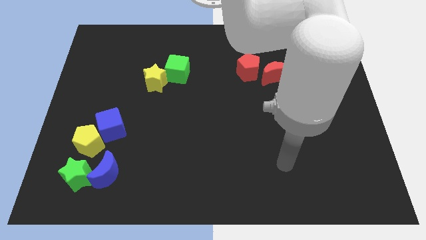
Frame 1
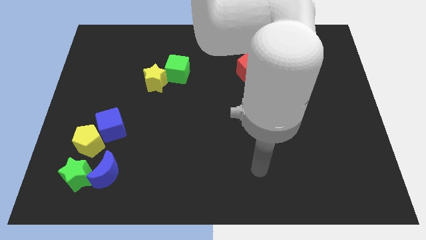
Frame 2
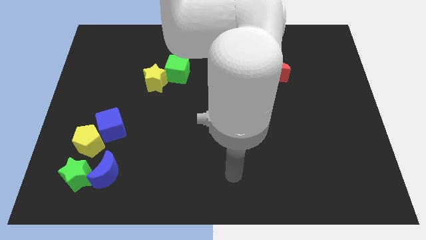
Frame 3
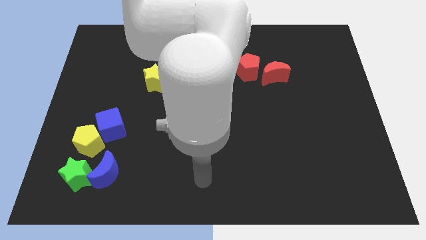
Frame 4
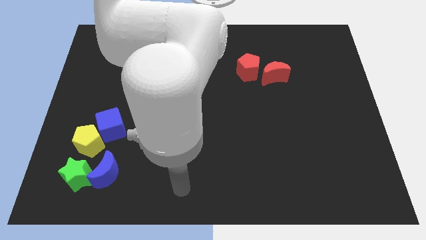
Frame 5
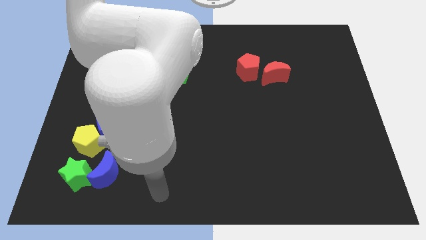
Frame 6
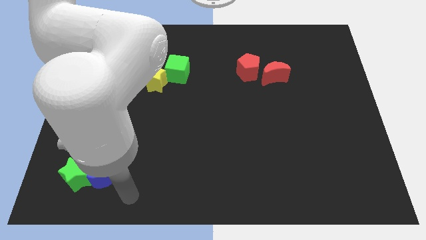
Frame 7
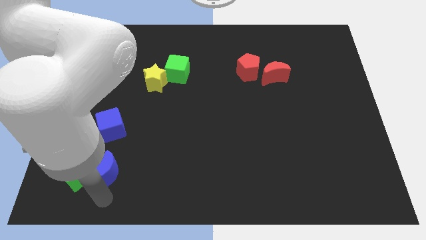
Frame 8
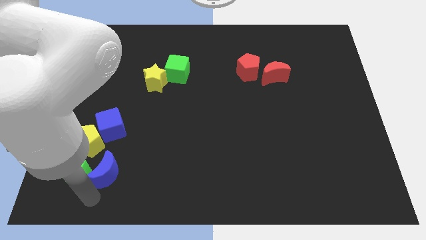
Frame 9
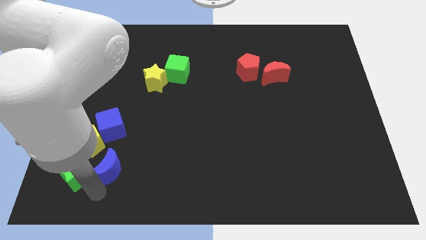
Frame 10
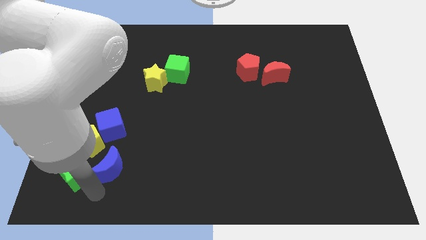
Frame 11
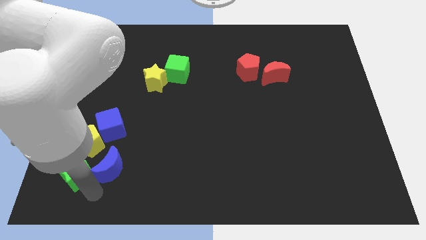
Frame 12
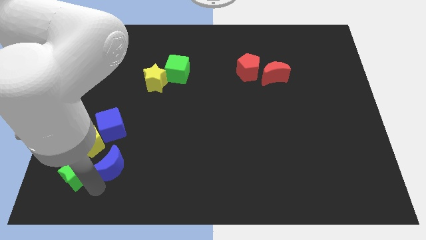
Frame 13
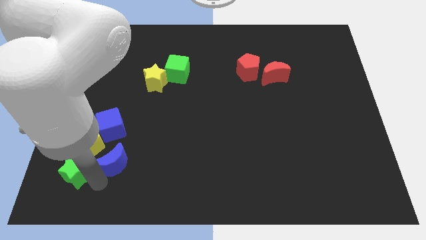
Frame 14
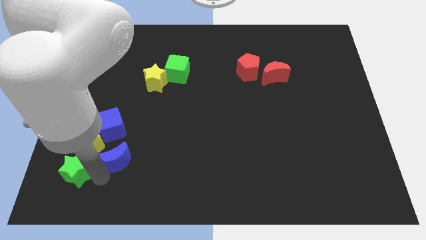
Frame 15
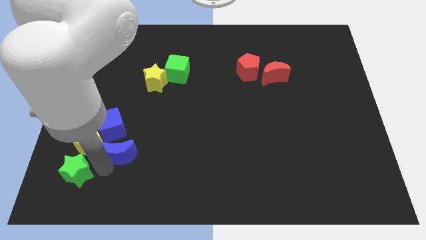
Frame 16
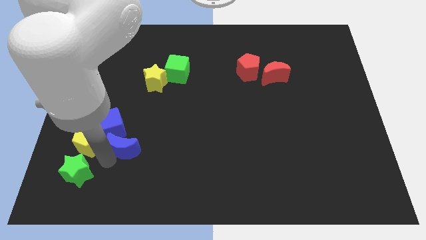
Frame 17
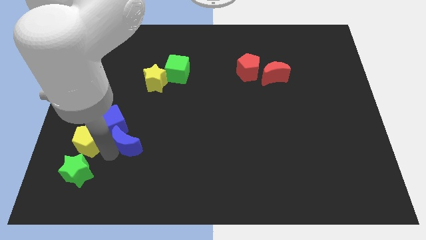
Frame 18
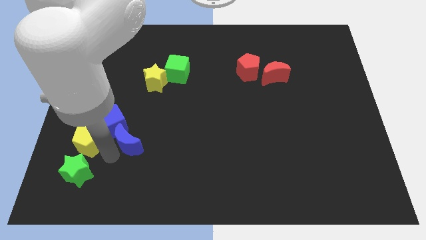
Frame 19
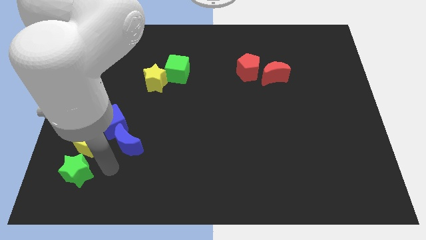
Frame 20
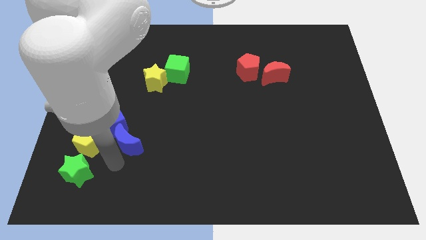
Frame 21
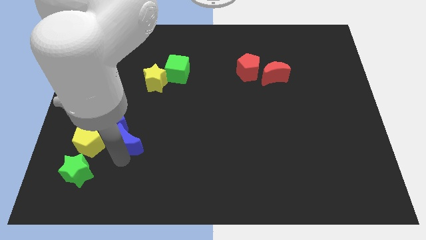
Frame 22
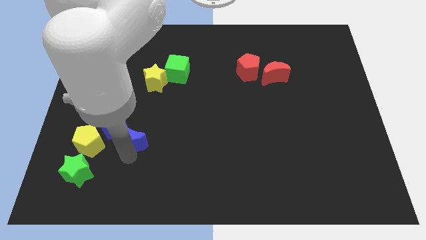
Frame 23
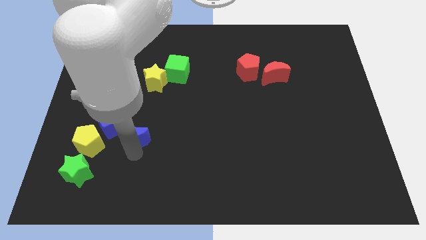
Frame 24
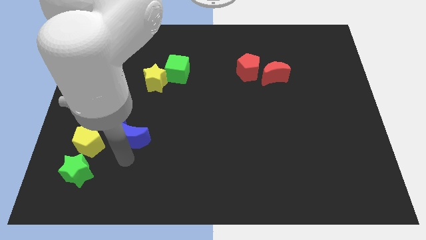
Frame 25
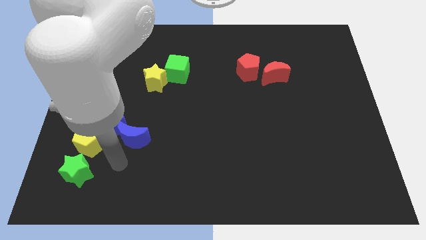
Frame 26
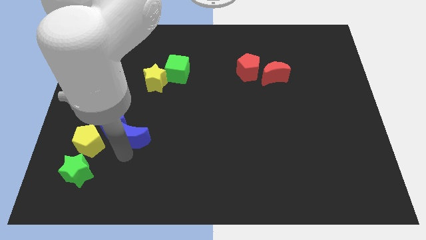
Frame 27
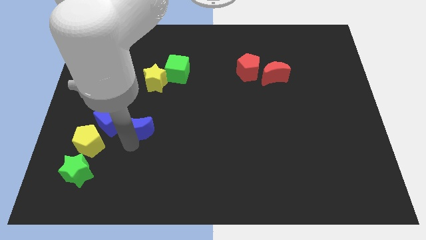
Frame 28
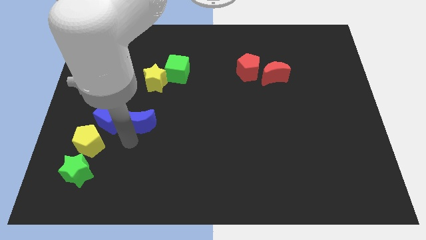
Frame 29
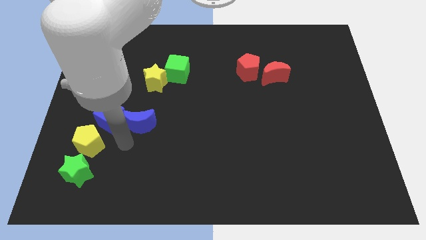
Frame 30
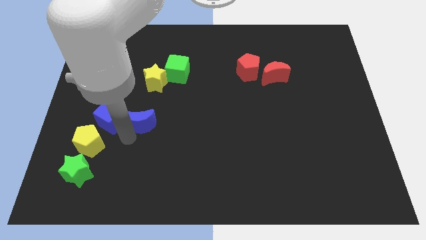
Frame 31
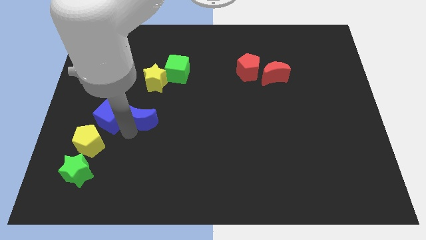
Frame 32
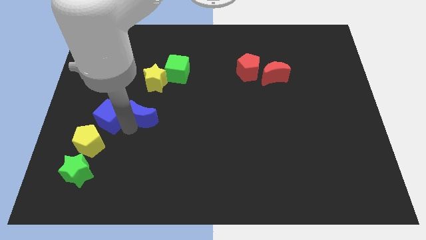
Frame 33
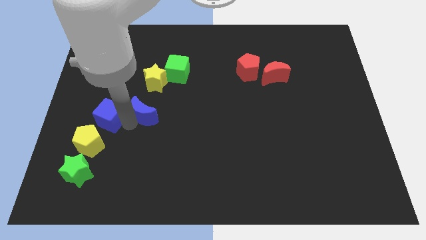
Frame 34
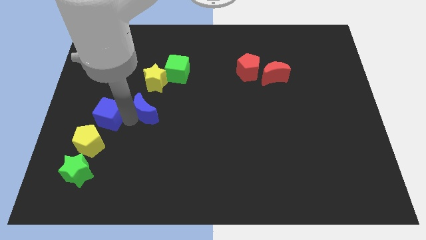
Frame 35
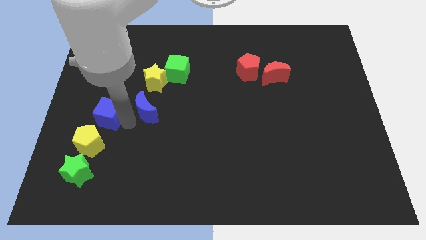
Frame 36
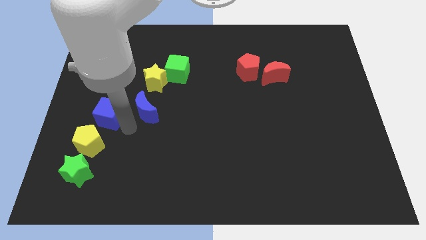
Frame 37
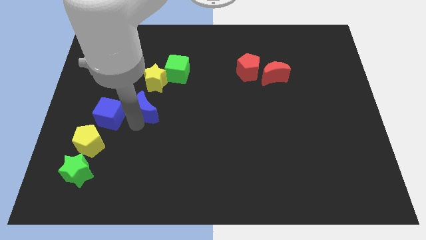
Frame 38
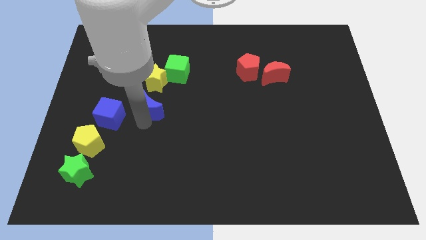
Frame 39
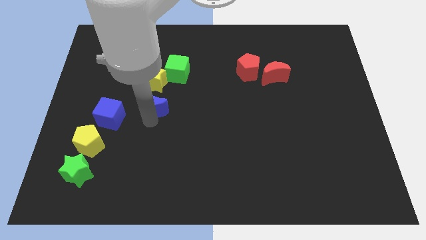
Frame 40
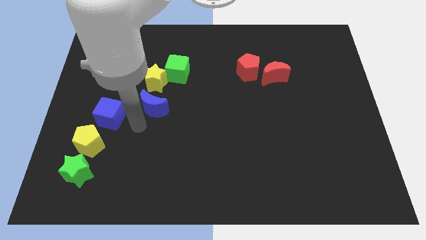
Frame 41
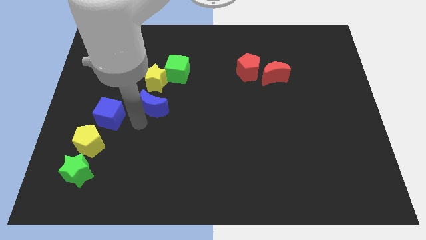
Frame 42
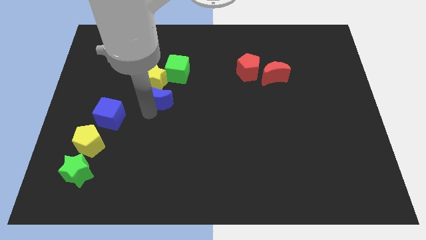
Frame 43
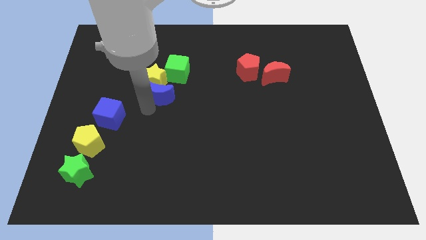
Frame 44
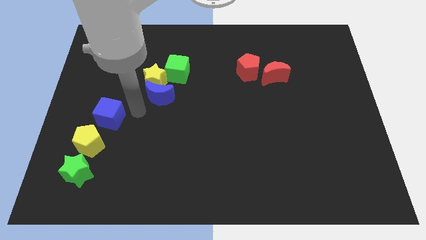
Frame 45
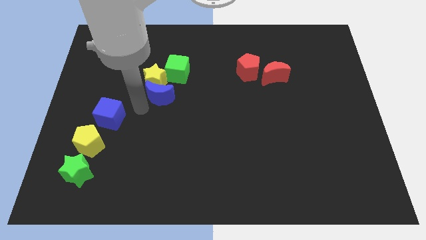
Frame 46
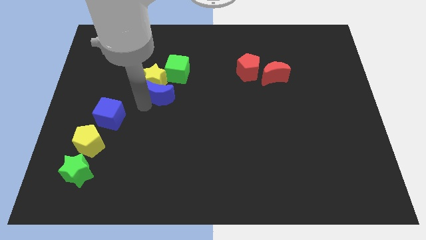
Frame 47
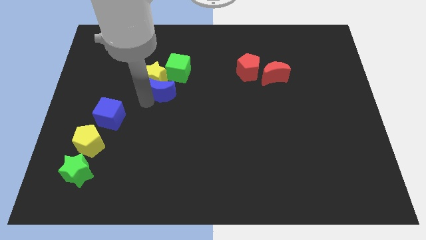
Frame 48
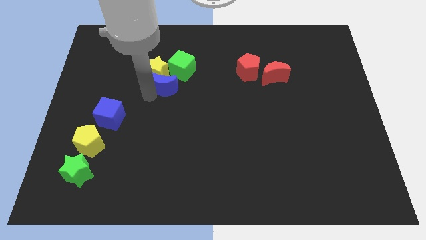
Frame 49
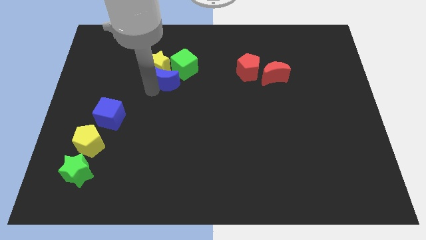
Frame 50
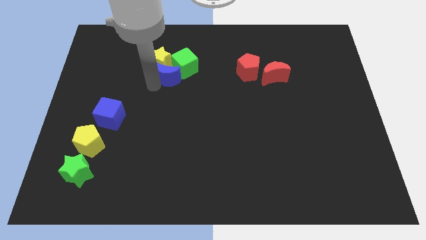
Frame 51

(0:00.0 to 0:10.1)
slide the blue moon towards the green cube

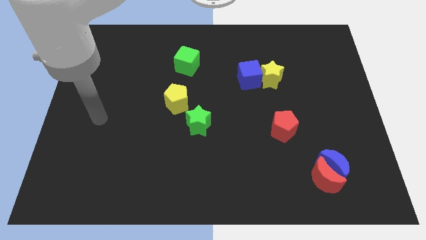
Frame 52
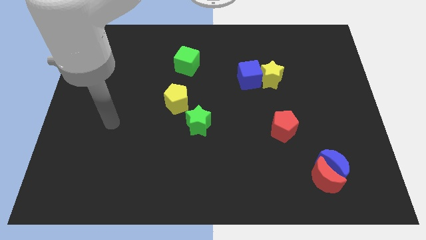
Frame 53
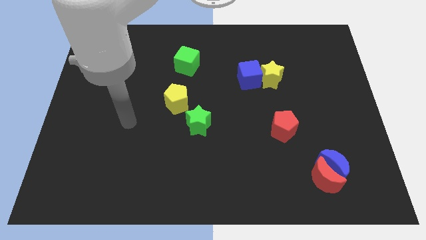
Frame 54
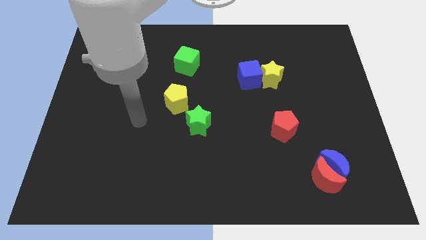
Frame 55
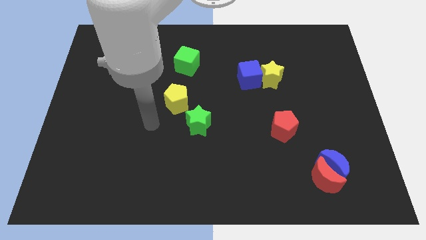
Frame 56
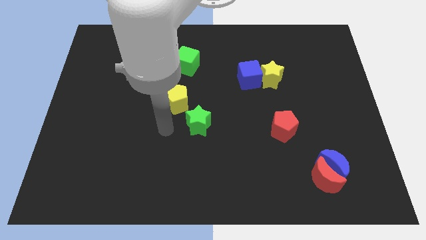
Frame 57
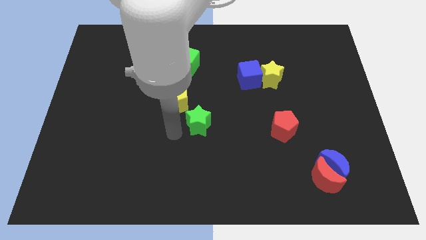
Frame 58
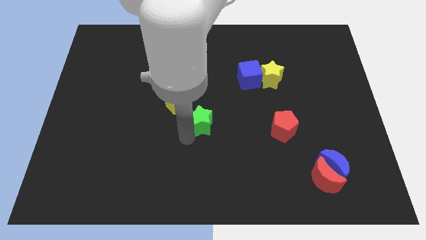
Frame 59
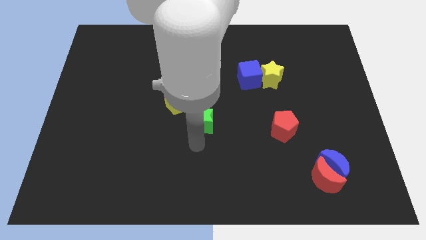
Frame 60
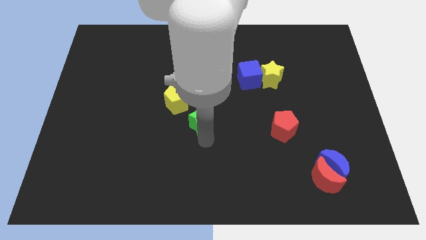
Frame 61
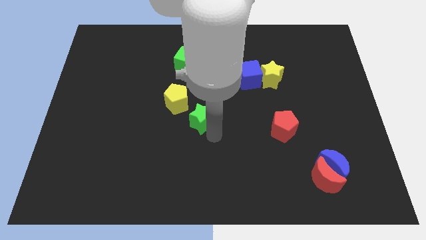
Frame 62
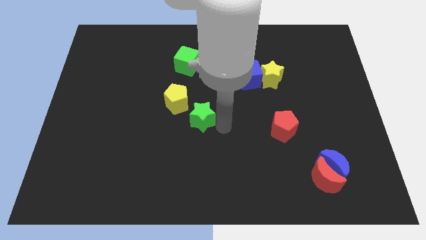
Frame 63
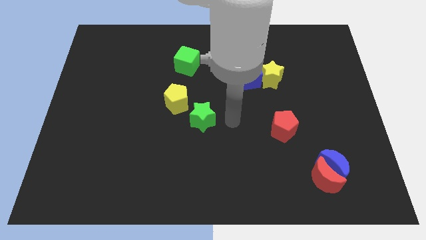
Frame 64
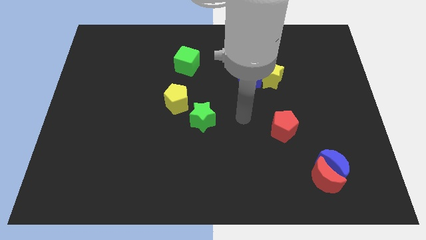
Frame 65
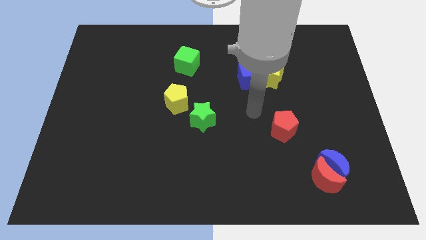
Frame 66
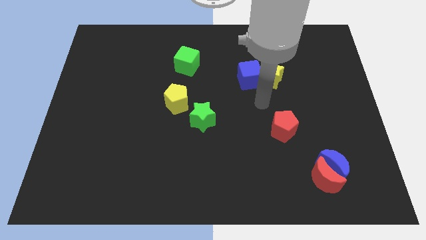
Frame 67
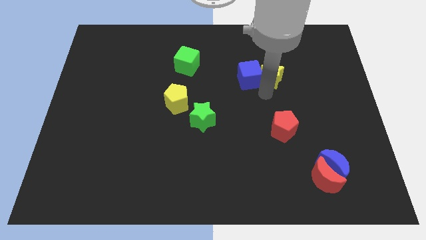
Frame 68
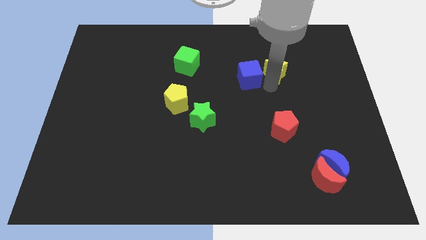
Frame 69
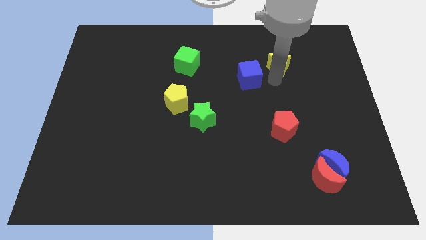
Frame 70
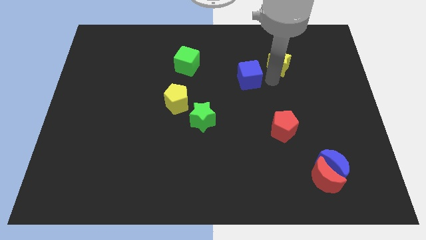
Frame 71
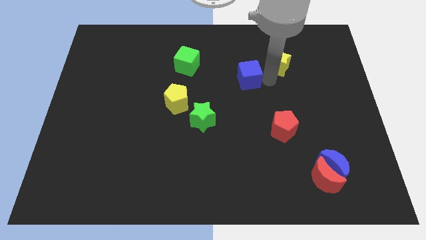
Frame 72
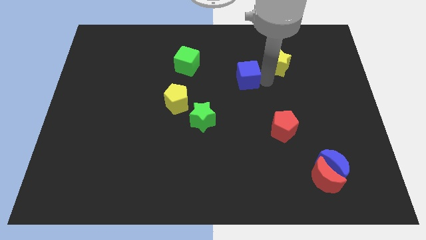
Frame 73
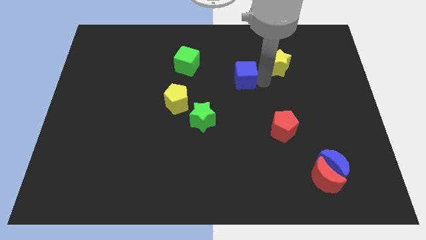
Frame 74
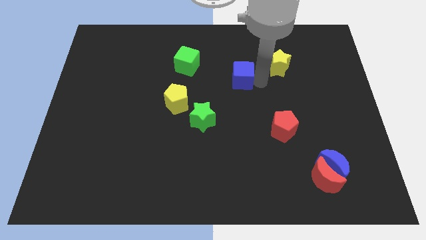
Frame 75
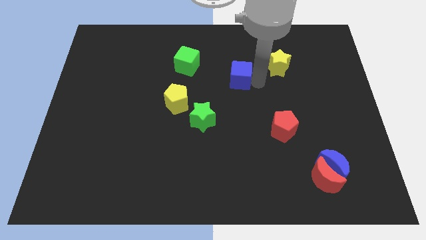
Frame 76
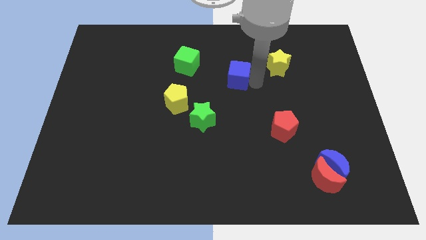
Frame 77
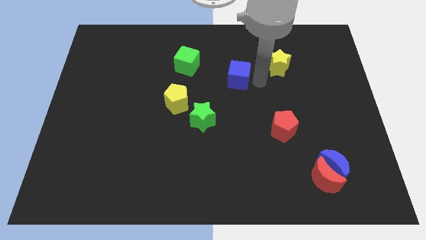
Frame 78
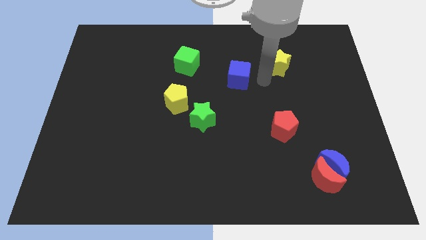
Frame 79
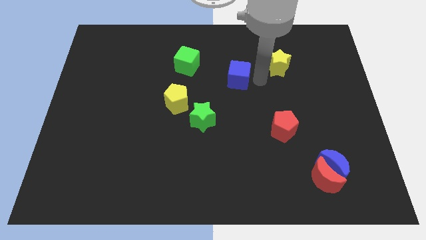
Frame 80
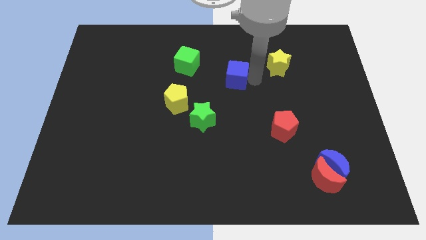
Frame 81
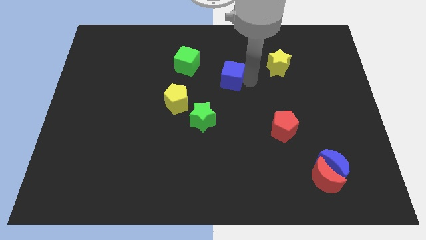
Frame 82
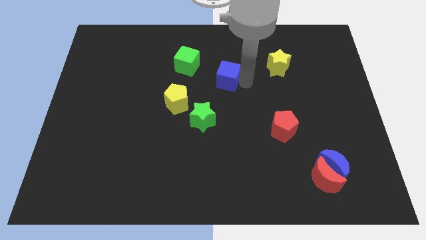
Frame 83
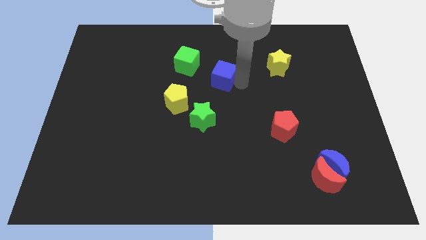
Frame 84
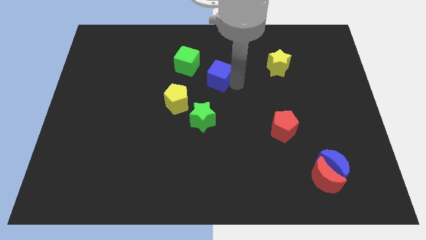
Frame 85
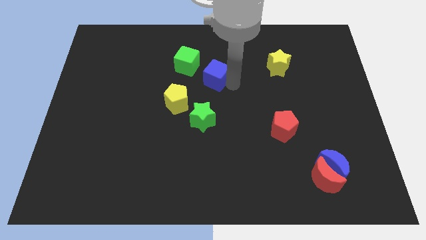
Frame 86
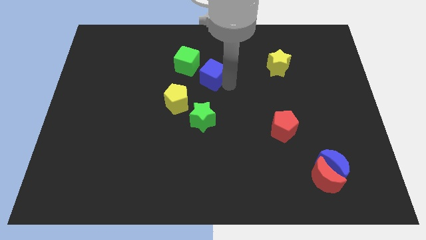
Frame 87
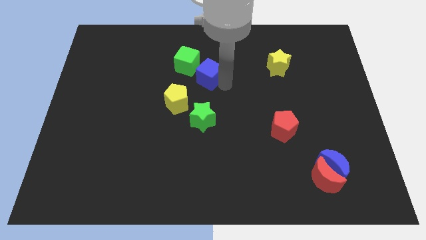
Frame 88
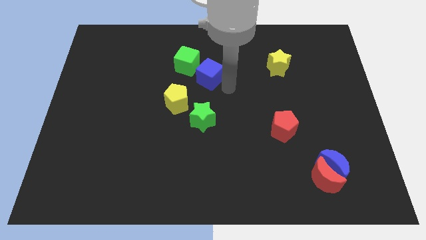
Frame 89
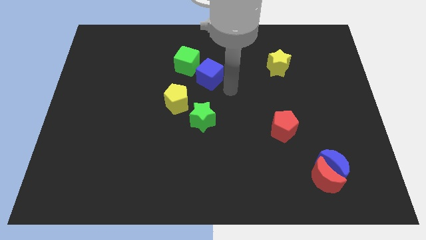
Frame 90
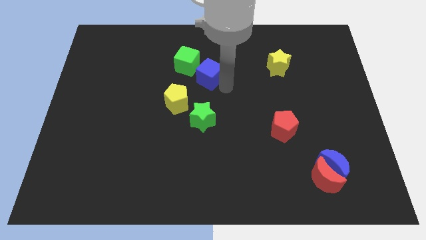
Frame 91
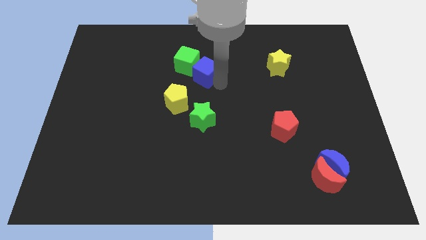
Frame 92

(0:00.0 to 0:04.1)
move the blue cube to the green cube
